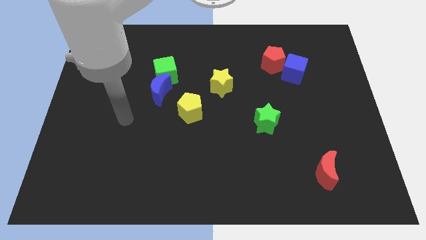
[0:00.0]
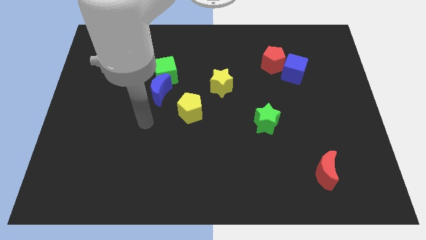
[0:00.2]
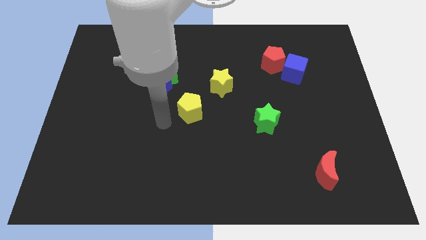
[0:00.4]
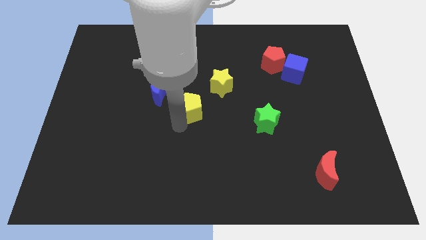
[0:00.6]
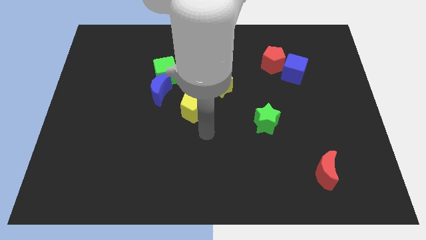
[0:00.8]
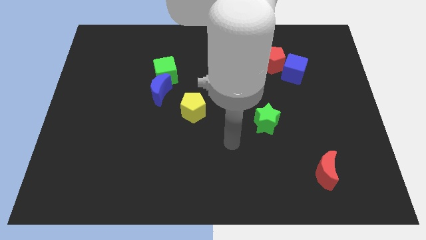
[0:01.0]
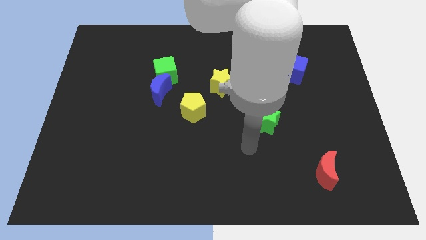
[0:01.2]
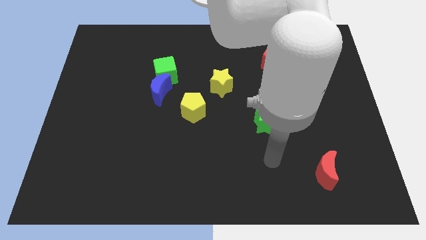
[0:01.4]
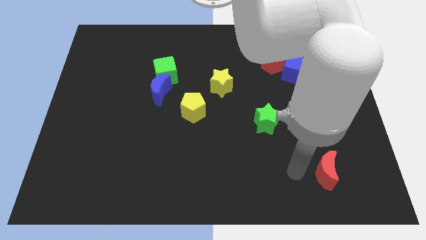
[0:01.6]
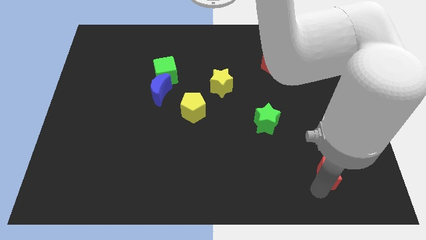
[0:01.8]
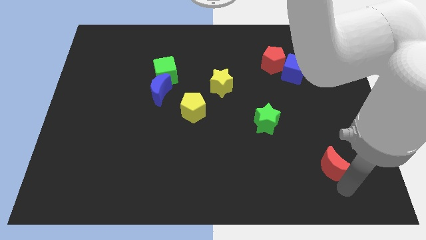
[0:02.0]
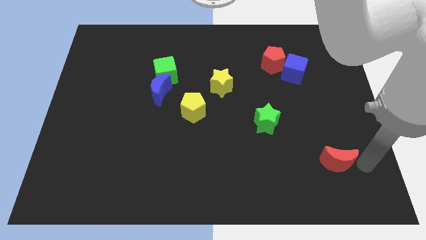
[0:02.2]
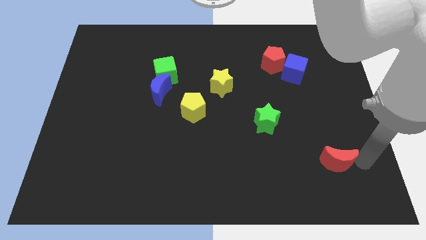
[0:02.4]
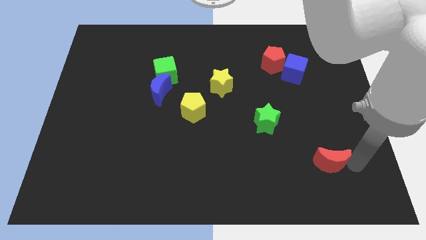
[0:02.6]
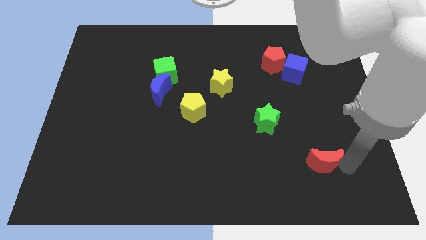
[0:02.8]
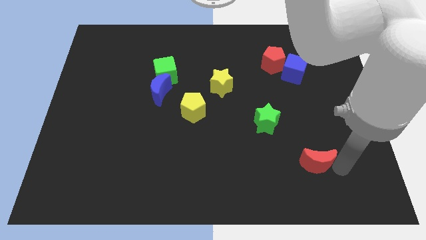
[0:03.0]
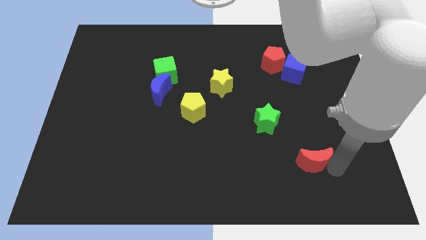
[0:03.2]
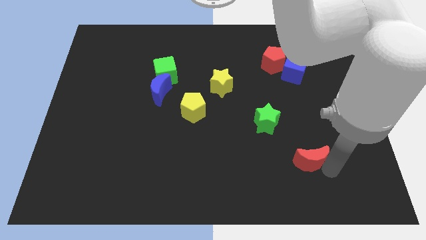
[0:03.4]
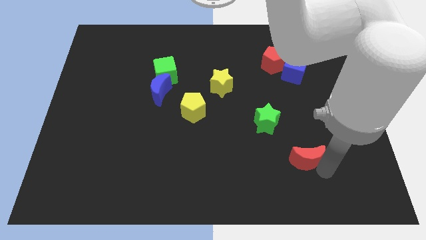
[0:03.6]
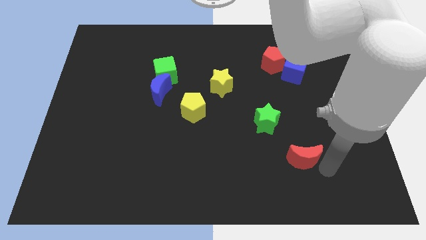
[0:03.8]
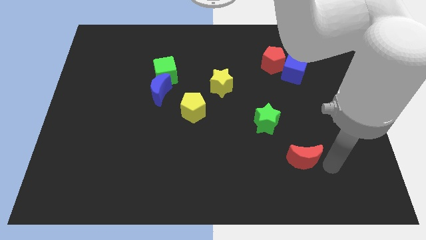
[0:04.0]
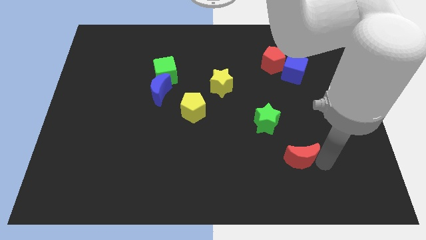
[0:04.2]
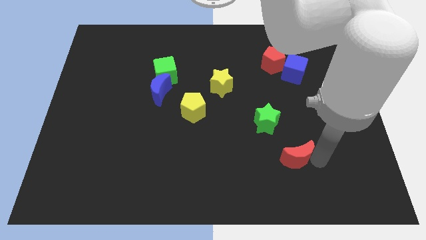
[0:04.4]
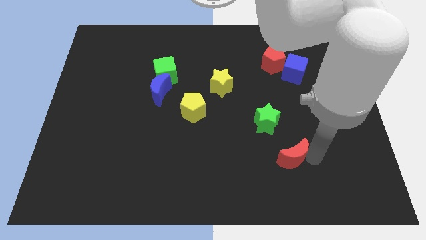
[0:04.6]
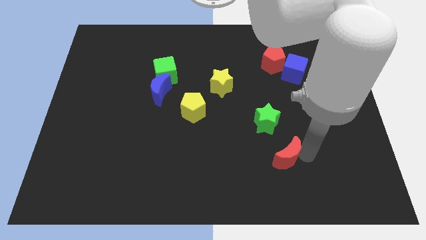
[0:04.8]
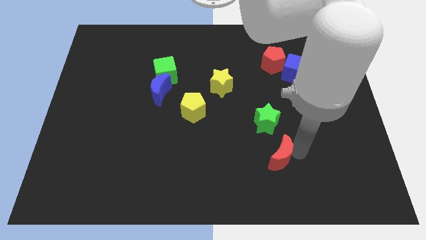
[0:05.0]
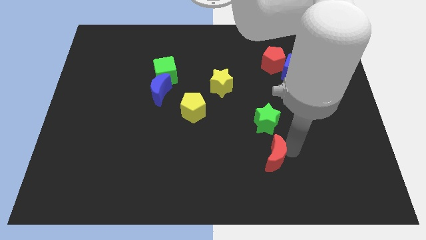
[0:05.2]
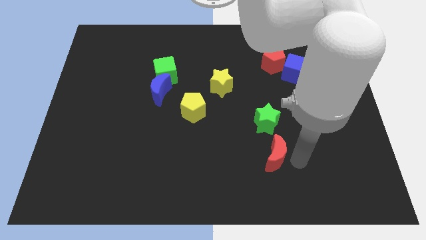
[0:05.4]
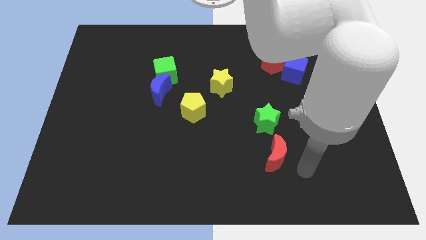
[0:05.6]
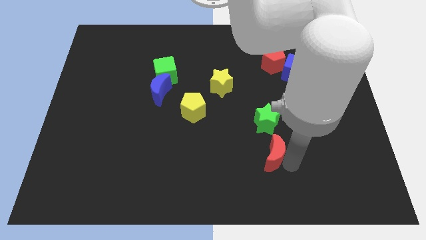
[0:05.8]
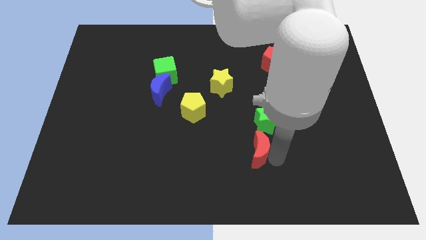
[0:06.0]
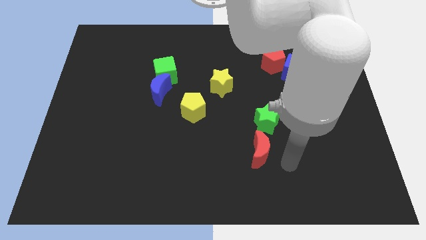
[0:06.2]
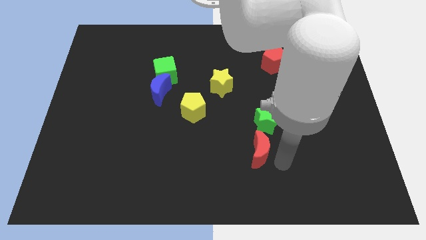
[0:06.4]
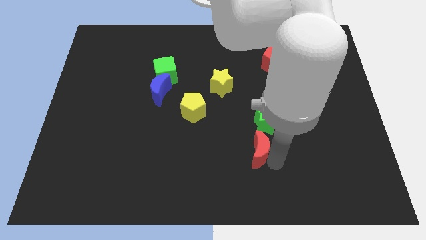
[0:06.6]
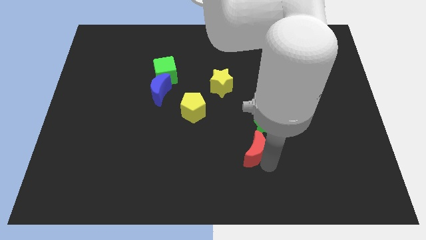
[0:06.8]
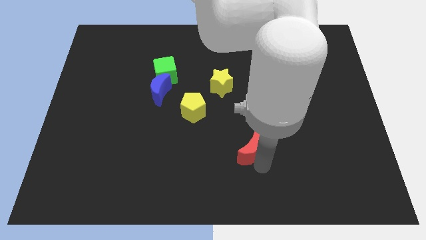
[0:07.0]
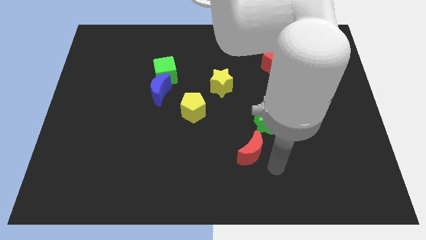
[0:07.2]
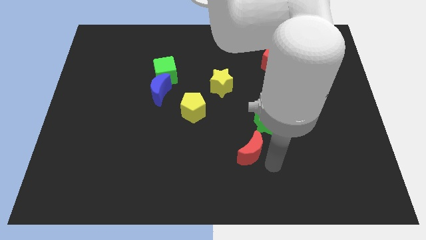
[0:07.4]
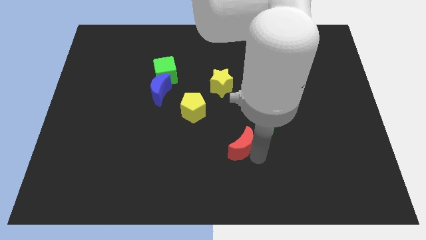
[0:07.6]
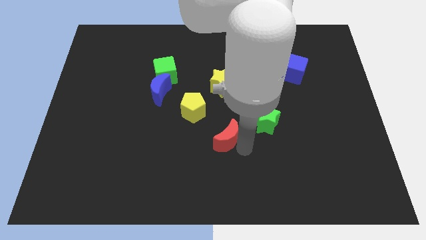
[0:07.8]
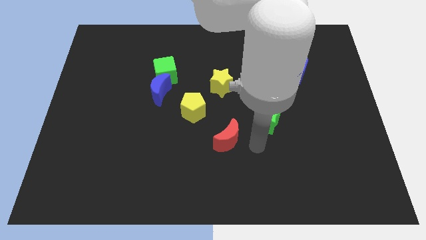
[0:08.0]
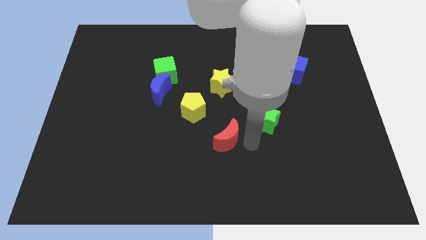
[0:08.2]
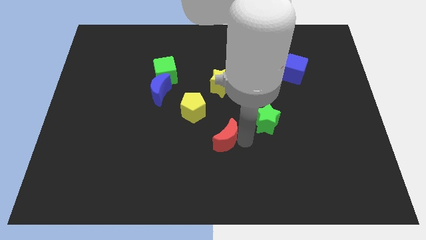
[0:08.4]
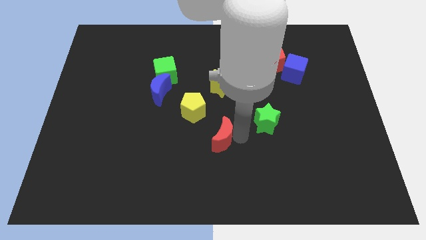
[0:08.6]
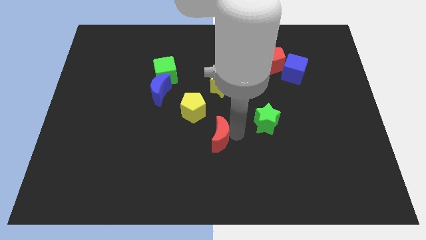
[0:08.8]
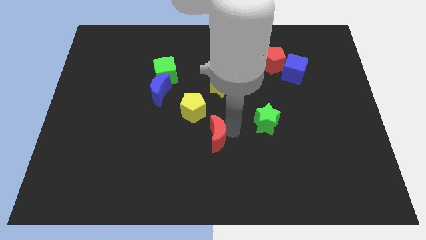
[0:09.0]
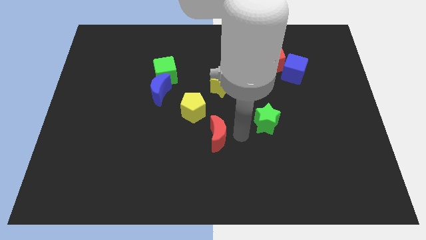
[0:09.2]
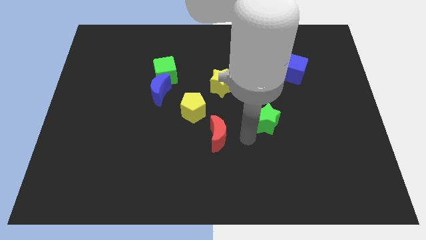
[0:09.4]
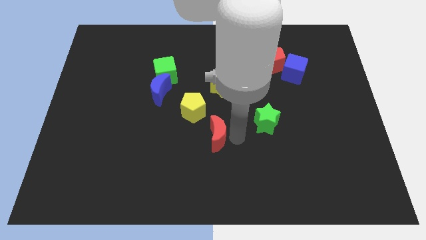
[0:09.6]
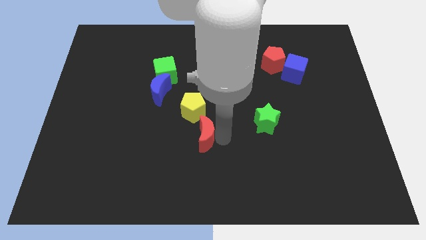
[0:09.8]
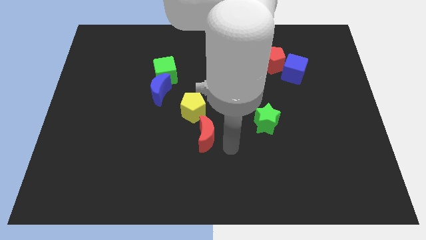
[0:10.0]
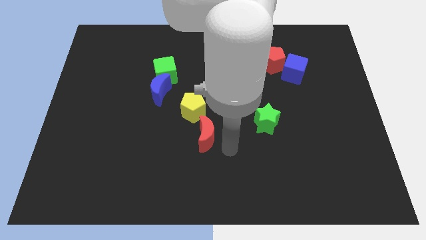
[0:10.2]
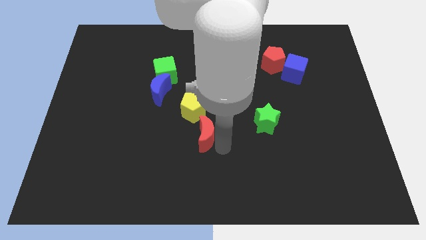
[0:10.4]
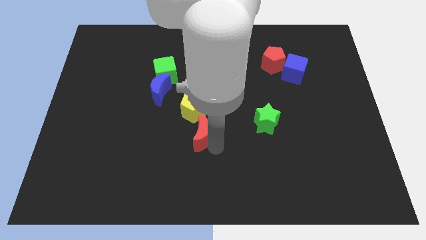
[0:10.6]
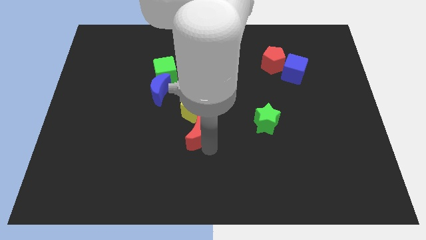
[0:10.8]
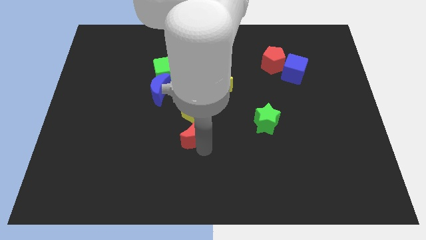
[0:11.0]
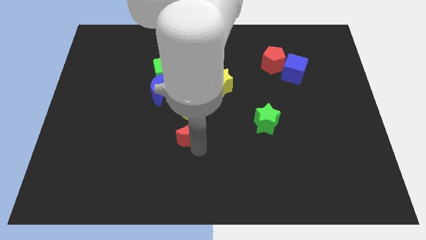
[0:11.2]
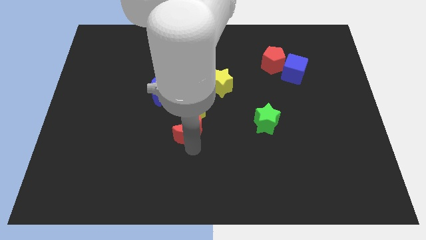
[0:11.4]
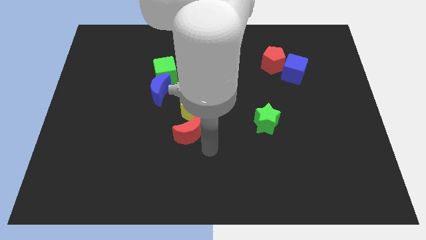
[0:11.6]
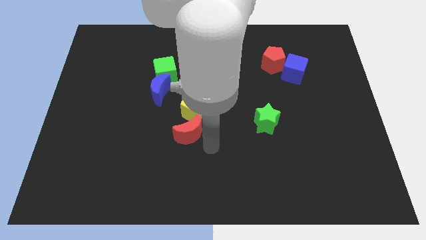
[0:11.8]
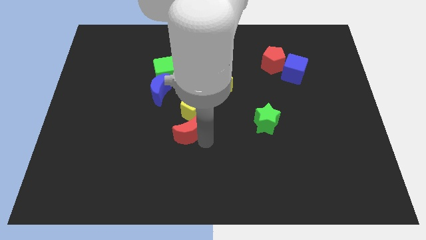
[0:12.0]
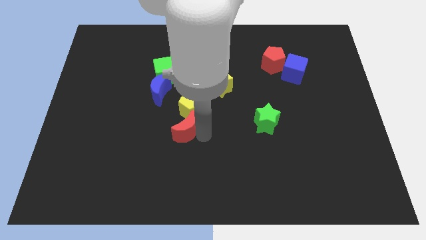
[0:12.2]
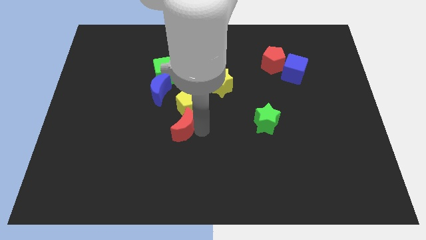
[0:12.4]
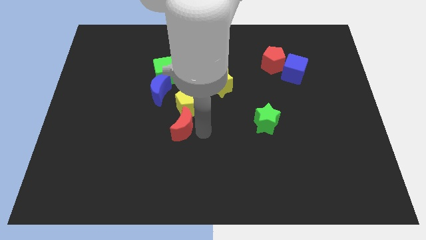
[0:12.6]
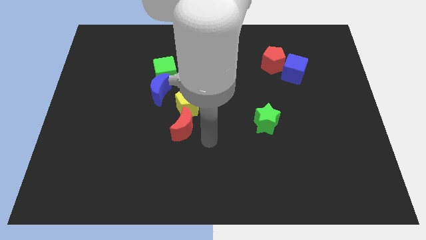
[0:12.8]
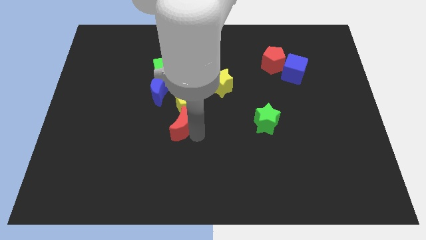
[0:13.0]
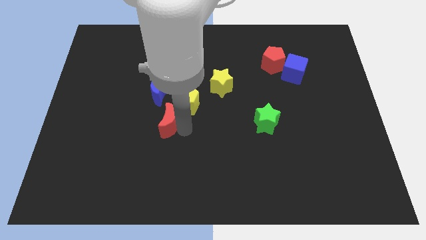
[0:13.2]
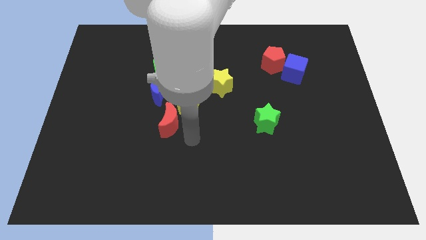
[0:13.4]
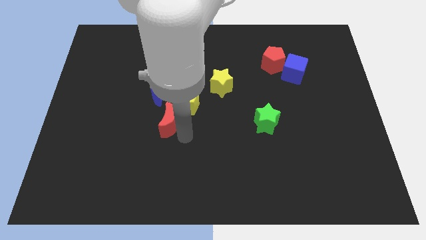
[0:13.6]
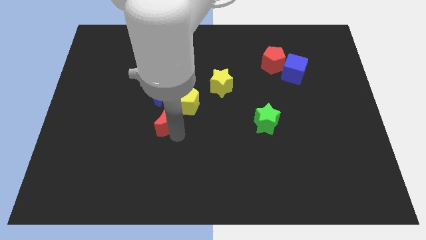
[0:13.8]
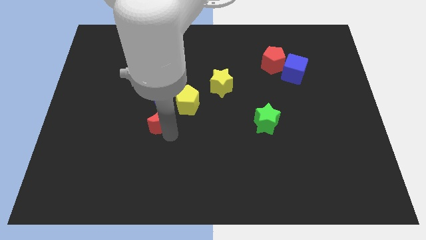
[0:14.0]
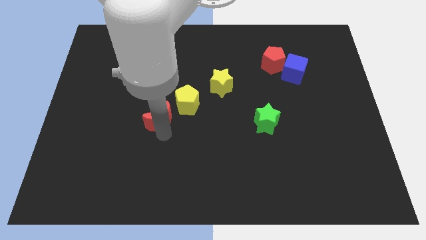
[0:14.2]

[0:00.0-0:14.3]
slide the red moon to the left of the yellow pentagon
